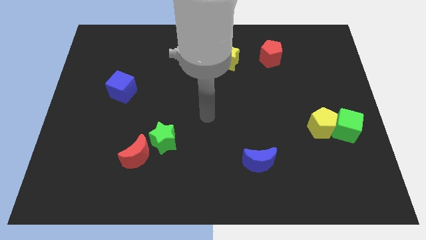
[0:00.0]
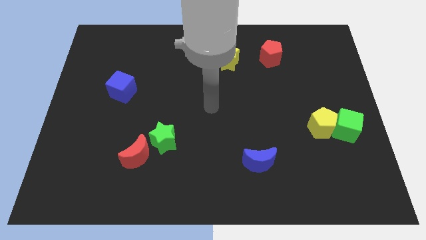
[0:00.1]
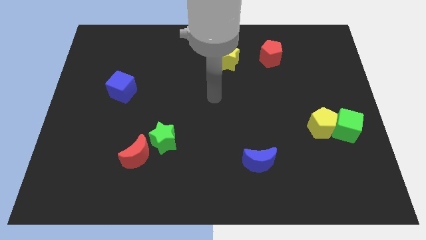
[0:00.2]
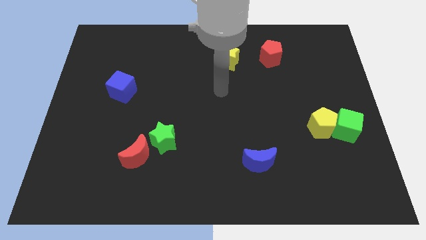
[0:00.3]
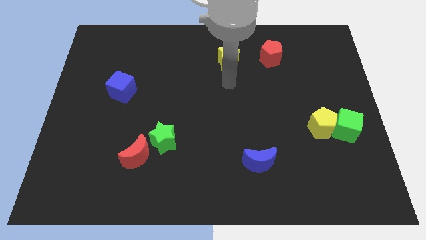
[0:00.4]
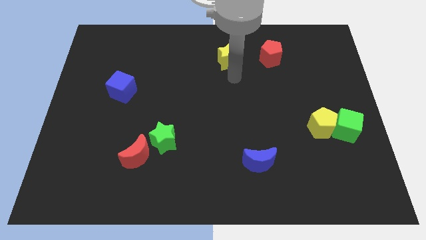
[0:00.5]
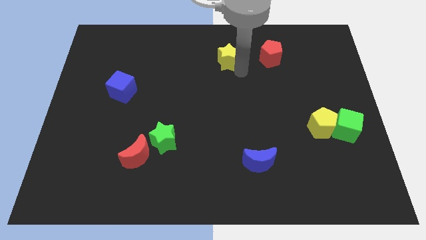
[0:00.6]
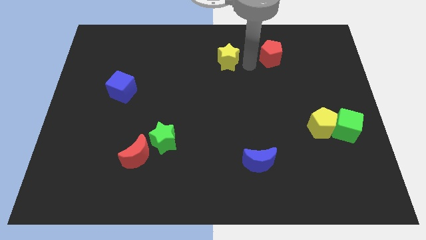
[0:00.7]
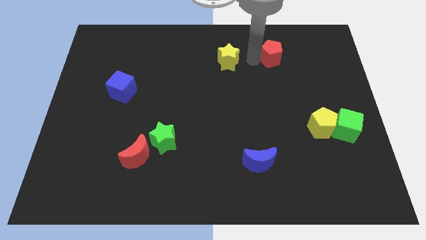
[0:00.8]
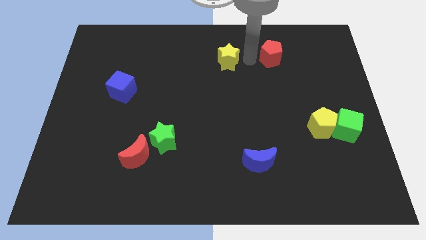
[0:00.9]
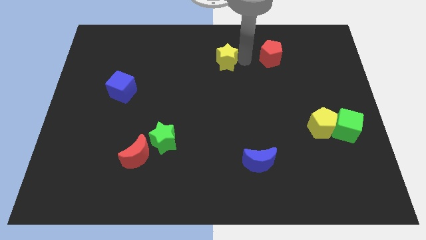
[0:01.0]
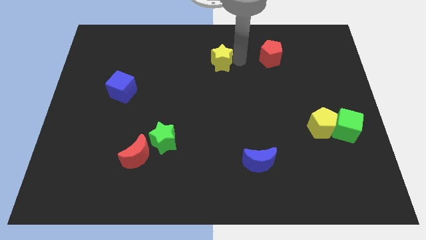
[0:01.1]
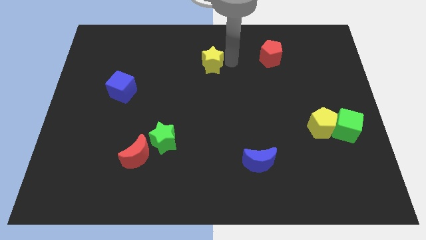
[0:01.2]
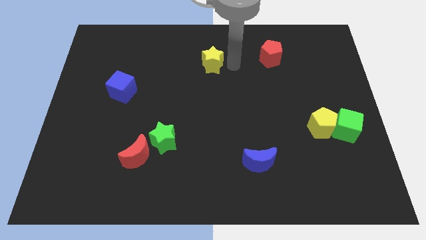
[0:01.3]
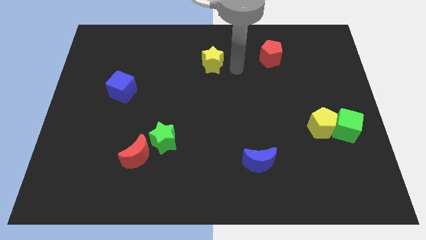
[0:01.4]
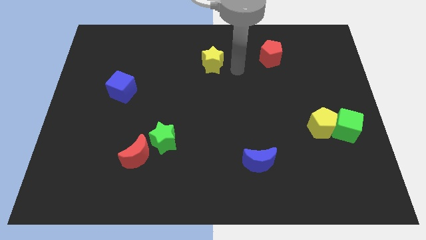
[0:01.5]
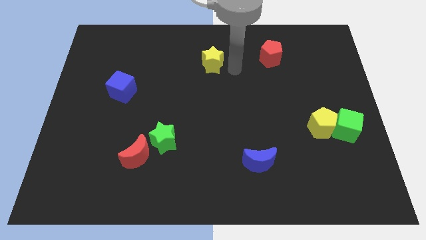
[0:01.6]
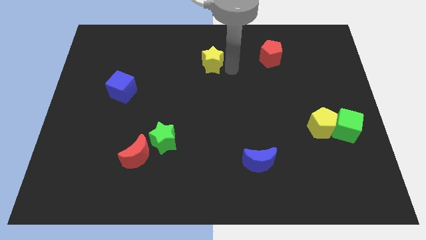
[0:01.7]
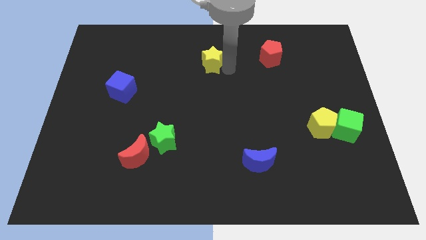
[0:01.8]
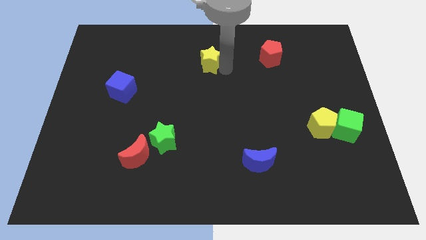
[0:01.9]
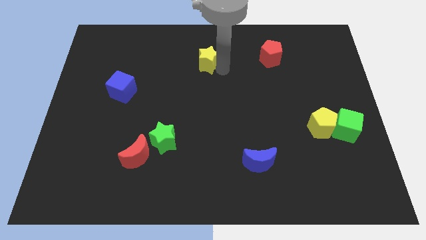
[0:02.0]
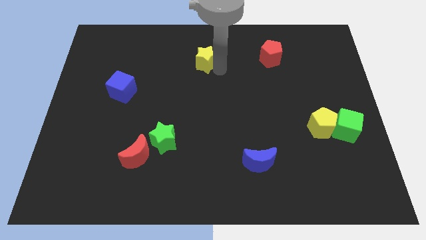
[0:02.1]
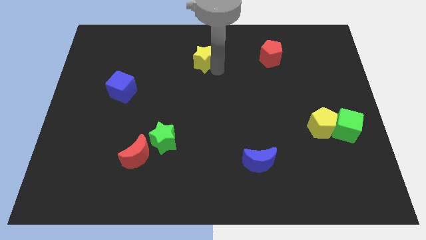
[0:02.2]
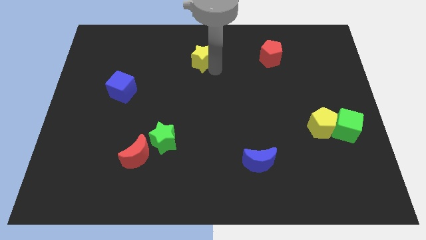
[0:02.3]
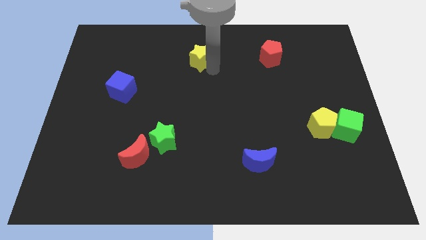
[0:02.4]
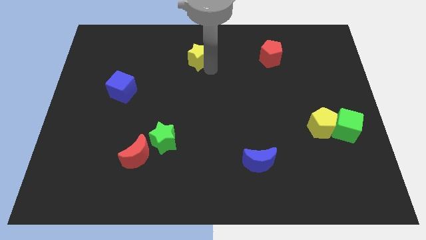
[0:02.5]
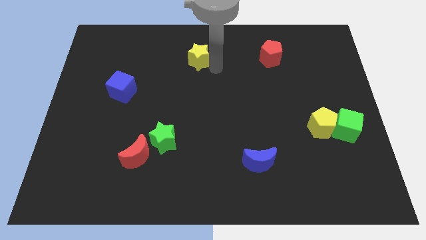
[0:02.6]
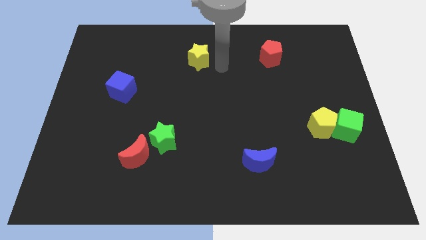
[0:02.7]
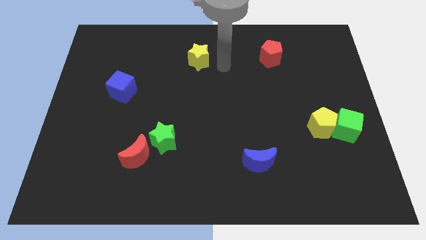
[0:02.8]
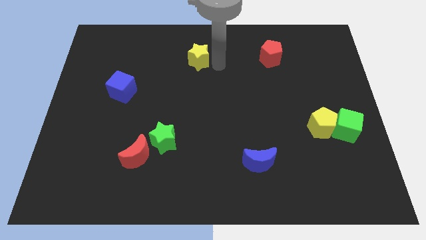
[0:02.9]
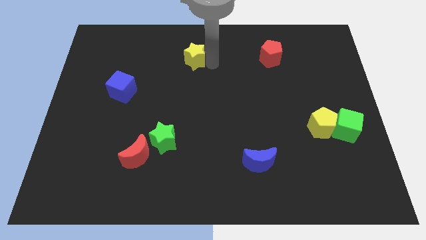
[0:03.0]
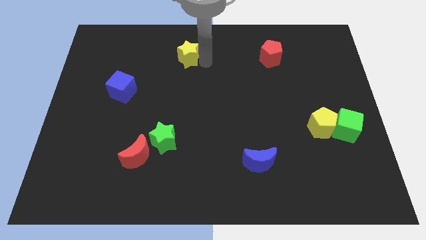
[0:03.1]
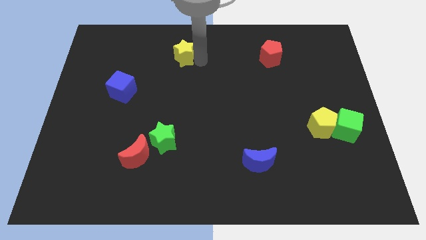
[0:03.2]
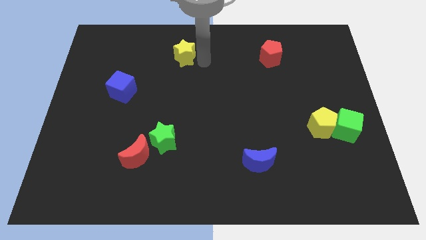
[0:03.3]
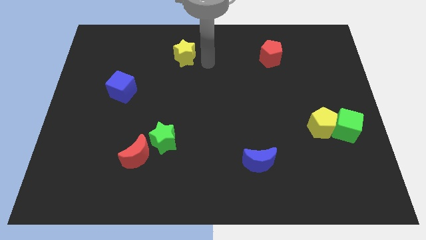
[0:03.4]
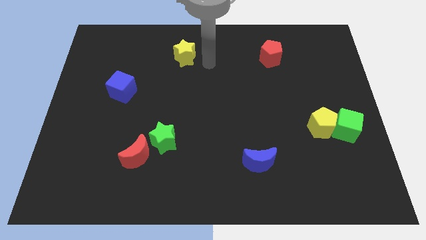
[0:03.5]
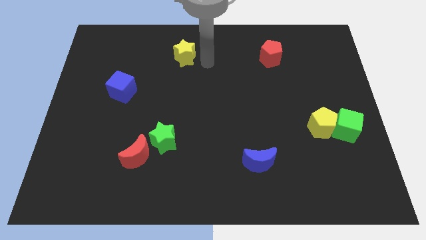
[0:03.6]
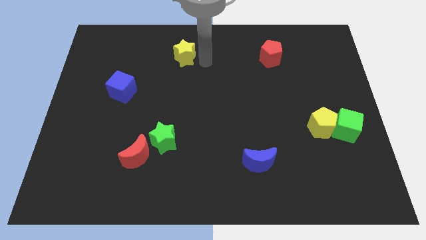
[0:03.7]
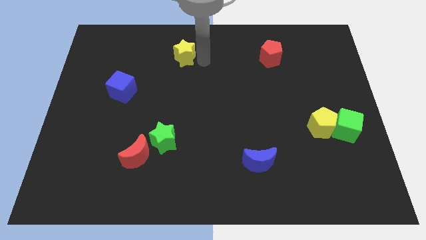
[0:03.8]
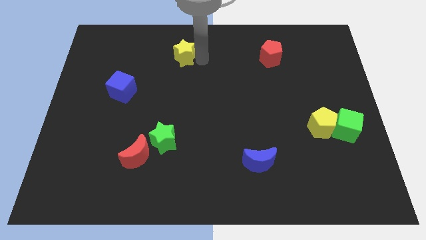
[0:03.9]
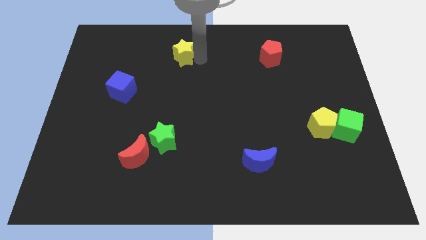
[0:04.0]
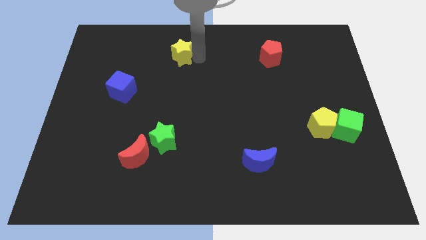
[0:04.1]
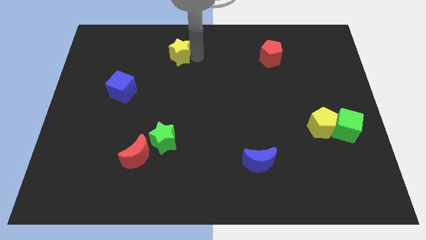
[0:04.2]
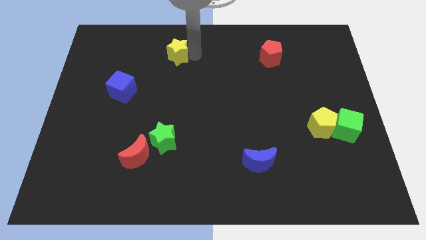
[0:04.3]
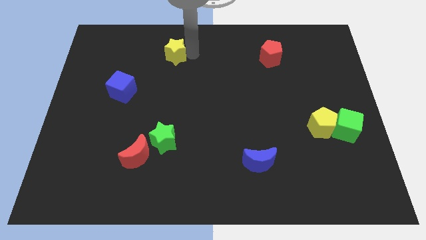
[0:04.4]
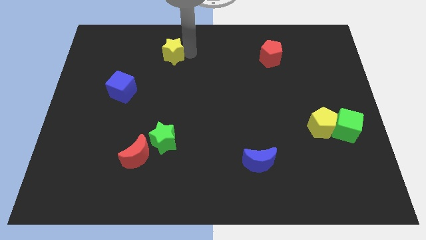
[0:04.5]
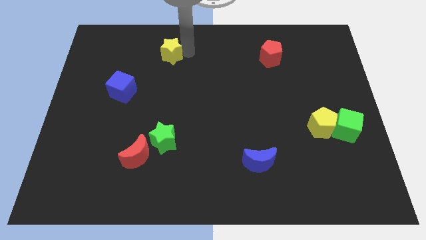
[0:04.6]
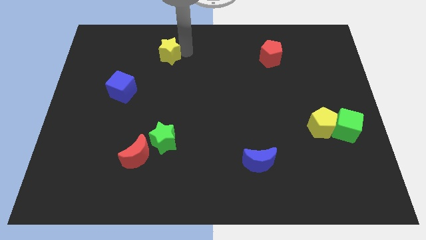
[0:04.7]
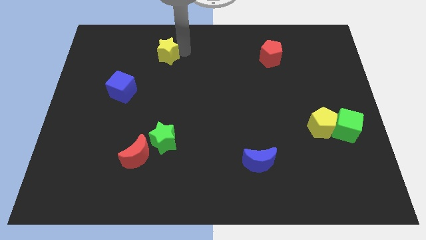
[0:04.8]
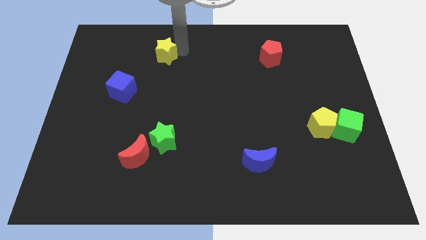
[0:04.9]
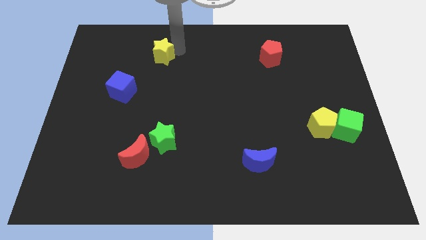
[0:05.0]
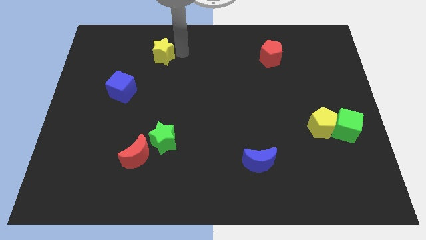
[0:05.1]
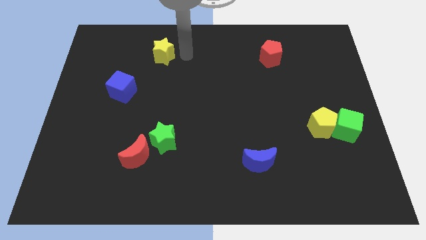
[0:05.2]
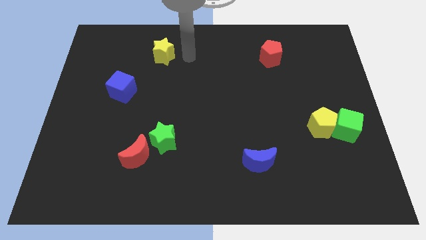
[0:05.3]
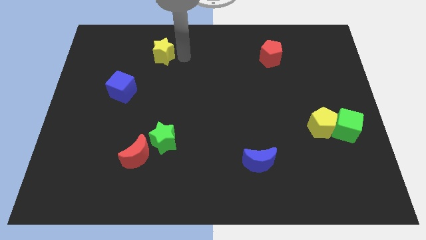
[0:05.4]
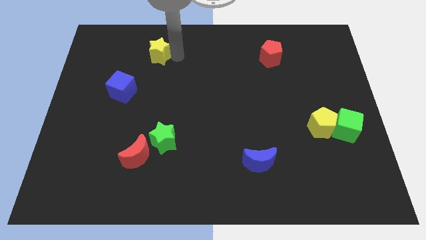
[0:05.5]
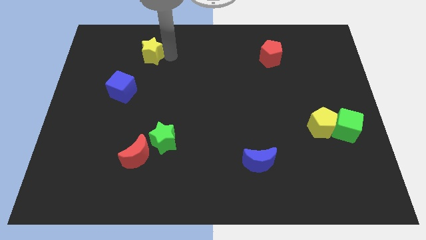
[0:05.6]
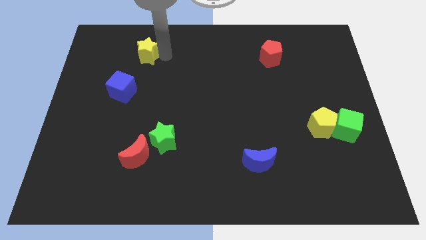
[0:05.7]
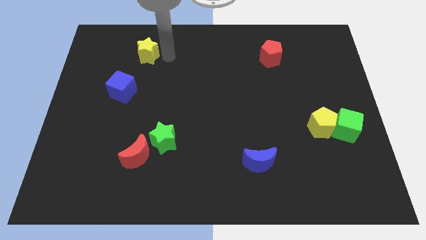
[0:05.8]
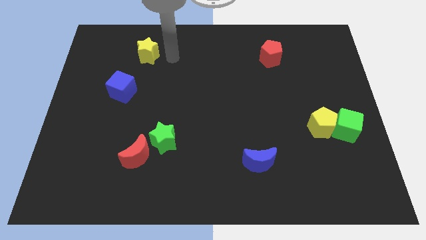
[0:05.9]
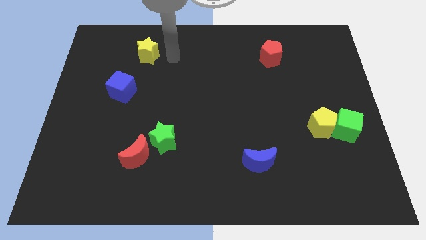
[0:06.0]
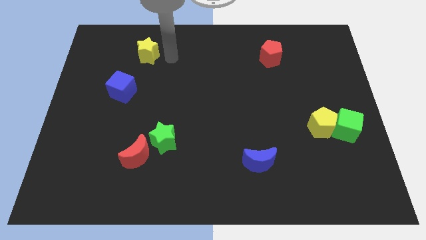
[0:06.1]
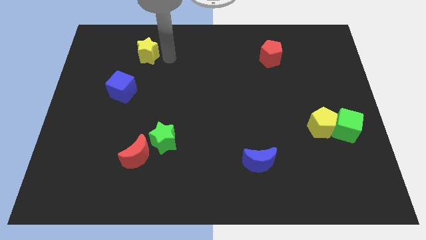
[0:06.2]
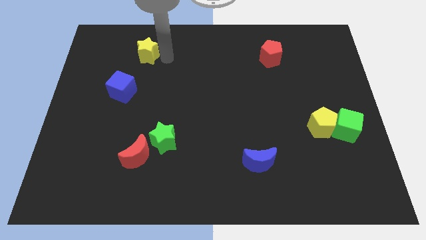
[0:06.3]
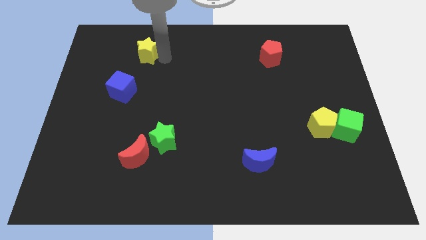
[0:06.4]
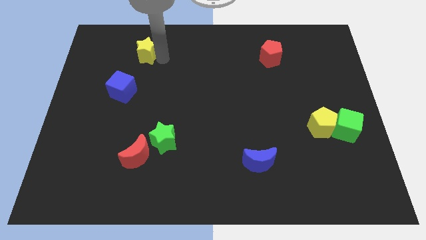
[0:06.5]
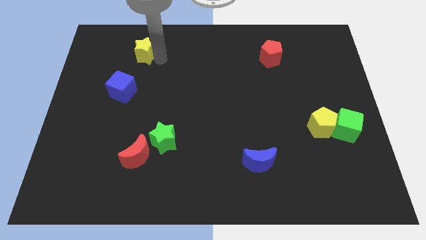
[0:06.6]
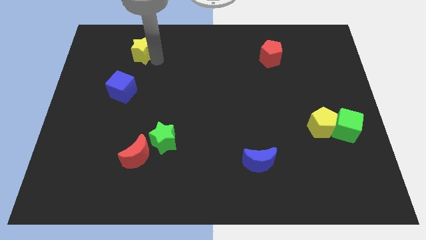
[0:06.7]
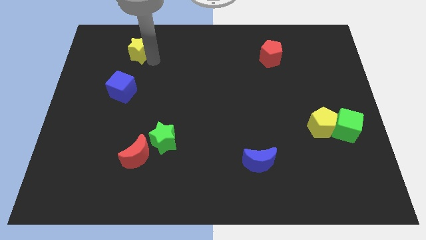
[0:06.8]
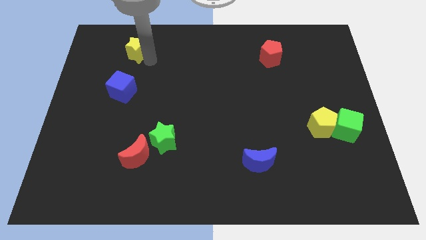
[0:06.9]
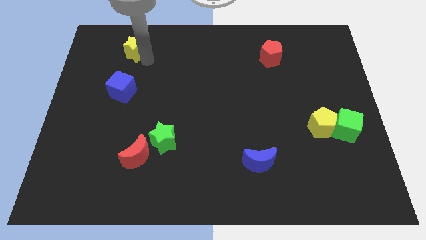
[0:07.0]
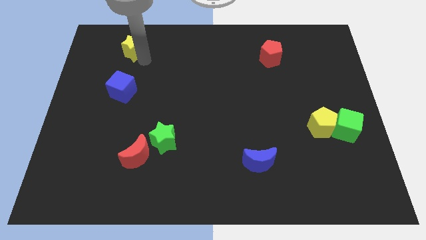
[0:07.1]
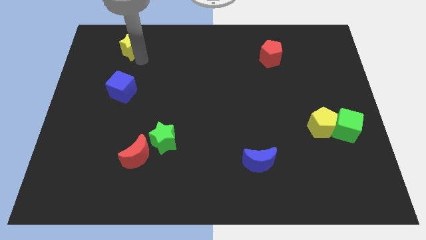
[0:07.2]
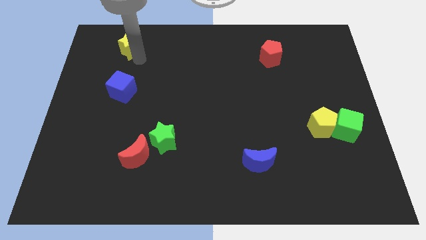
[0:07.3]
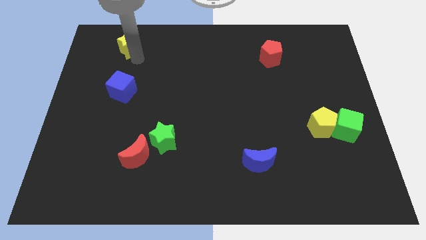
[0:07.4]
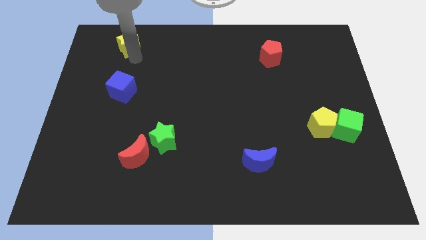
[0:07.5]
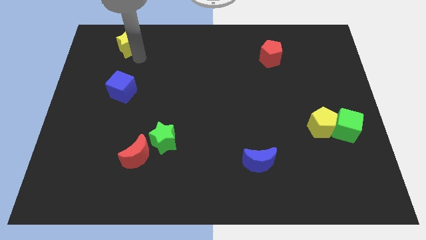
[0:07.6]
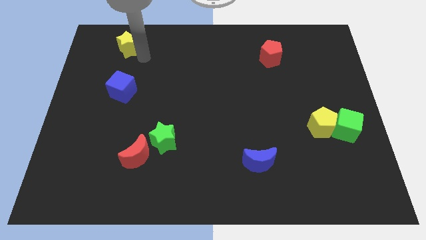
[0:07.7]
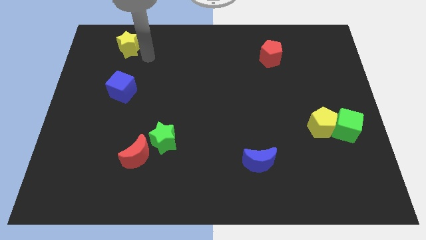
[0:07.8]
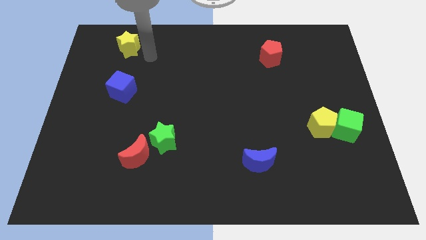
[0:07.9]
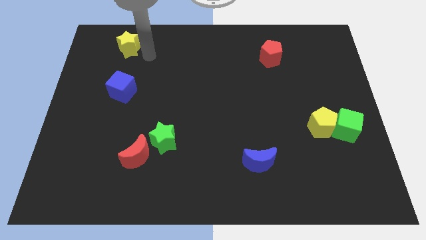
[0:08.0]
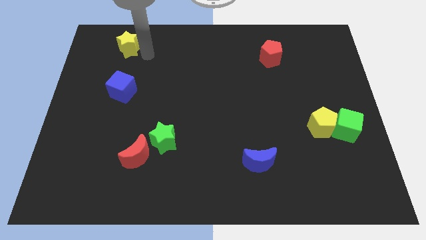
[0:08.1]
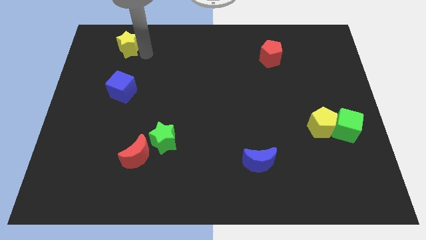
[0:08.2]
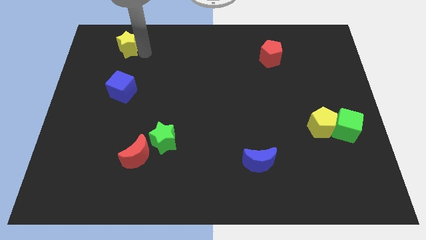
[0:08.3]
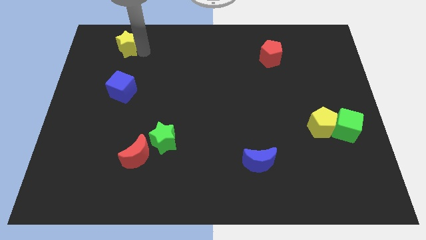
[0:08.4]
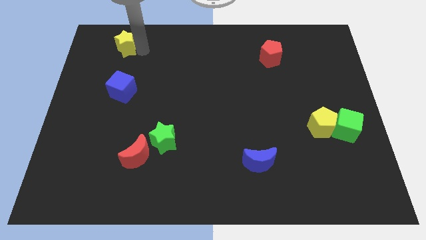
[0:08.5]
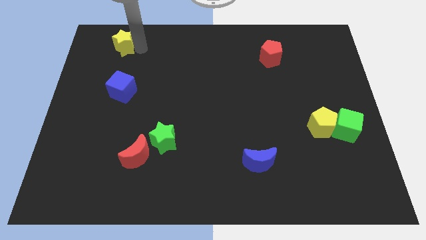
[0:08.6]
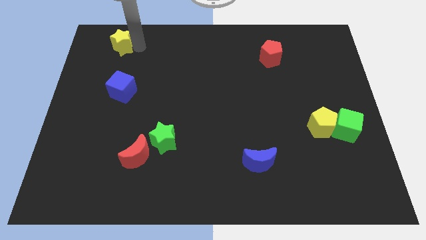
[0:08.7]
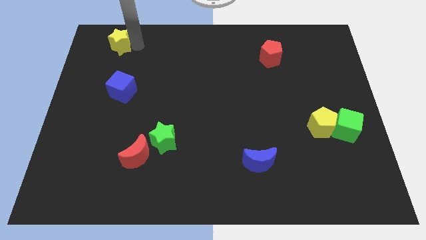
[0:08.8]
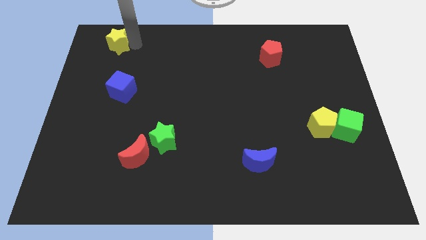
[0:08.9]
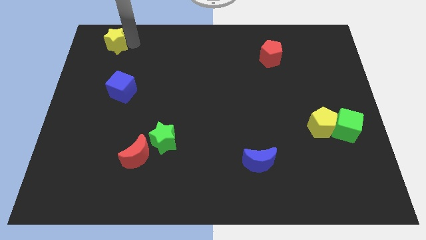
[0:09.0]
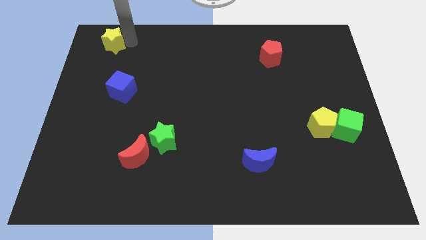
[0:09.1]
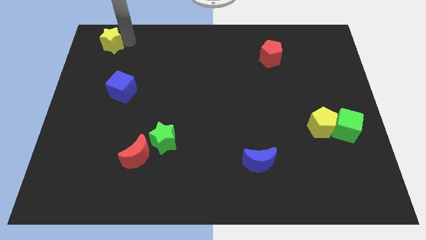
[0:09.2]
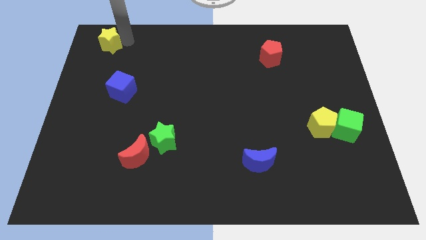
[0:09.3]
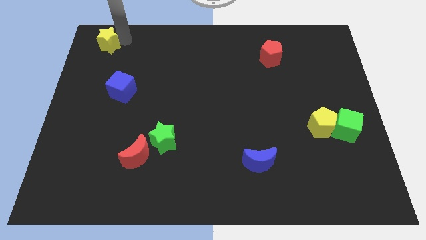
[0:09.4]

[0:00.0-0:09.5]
push the yellow star to the top left of the board
